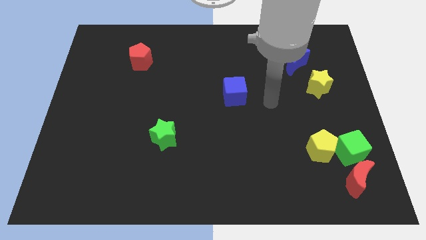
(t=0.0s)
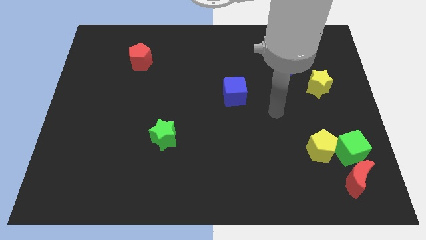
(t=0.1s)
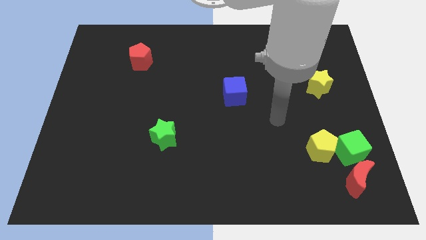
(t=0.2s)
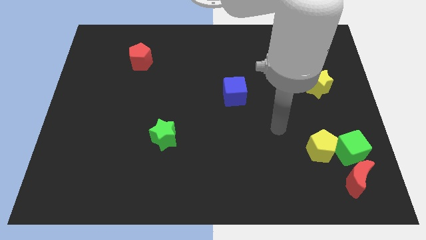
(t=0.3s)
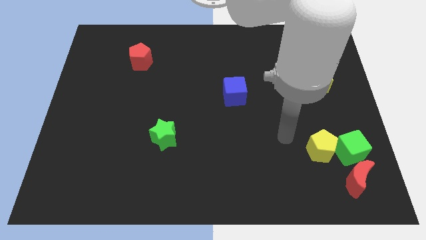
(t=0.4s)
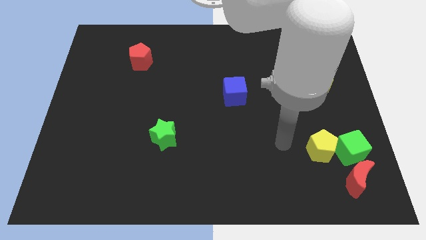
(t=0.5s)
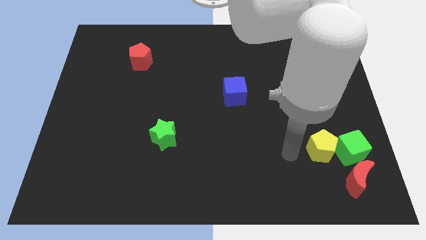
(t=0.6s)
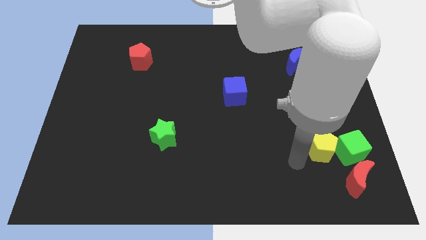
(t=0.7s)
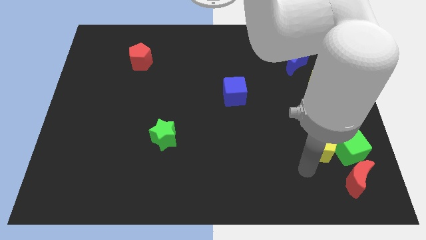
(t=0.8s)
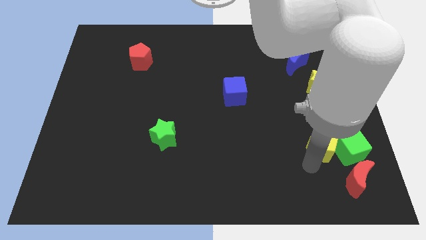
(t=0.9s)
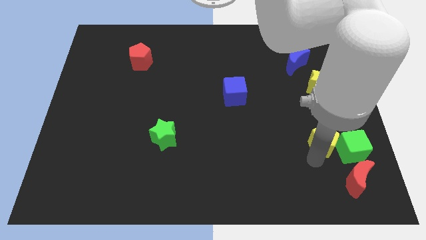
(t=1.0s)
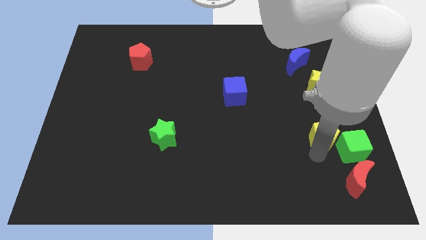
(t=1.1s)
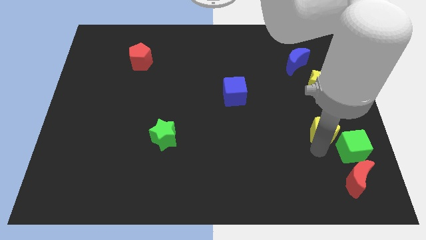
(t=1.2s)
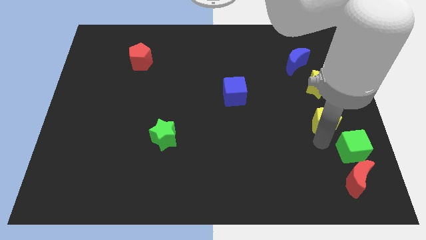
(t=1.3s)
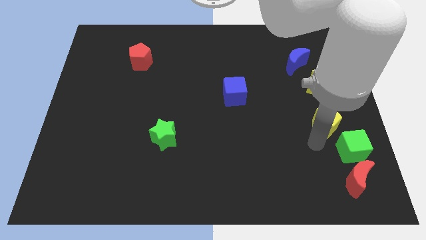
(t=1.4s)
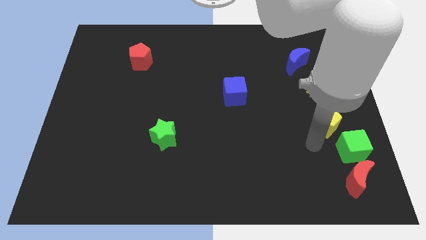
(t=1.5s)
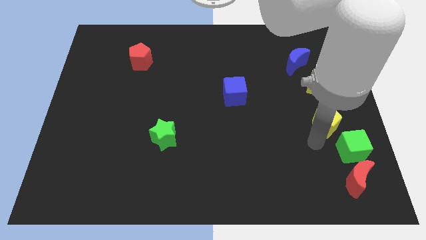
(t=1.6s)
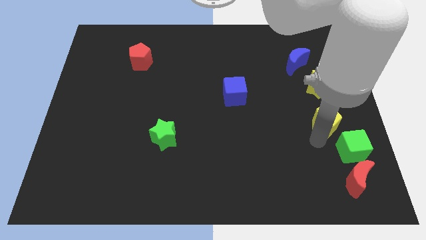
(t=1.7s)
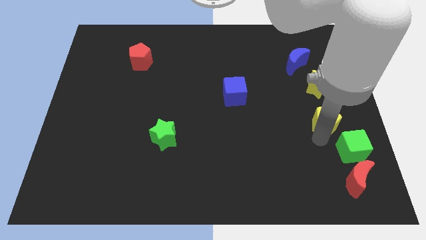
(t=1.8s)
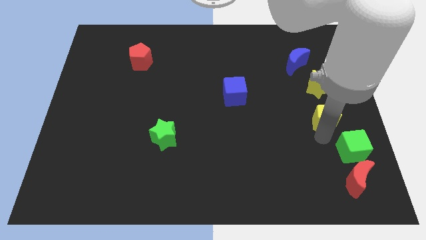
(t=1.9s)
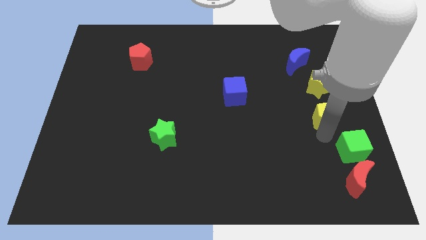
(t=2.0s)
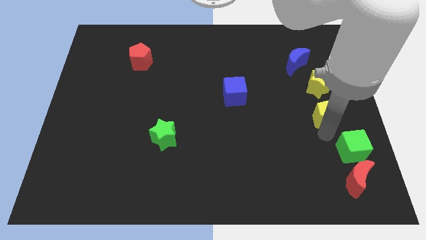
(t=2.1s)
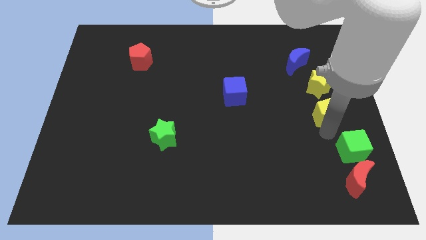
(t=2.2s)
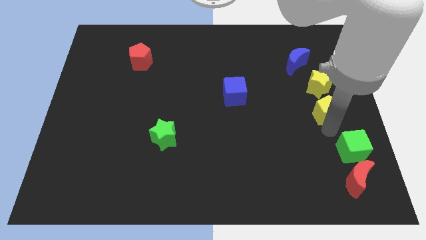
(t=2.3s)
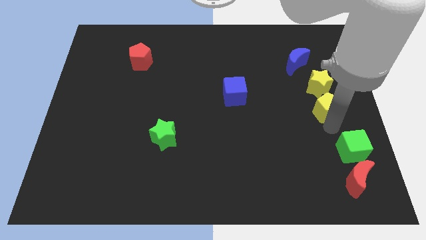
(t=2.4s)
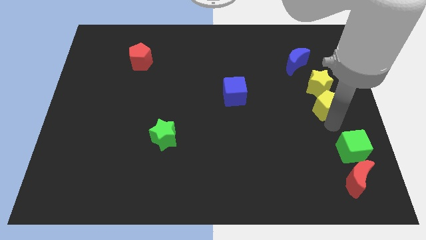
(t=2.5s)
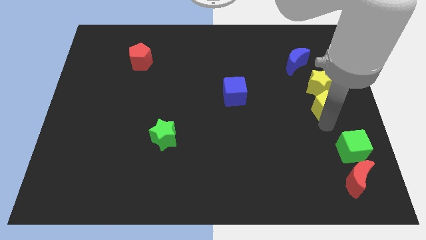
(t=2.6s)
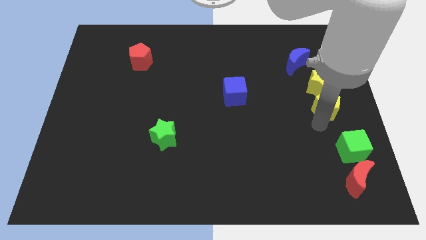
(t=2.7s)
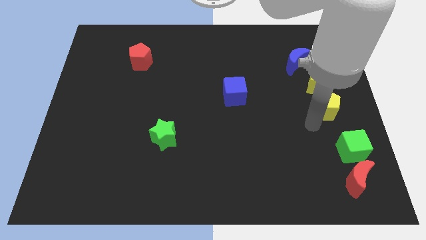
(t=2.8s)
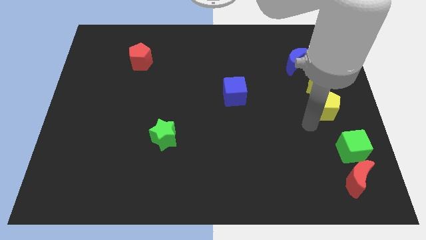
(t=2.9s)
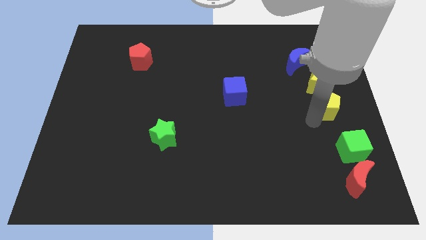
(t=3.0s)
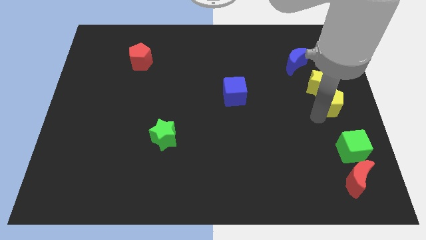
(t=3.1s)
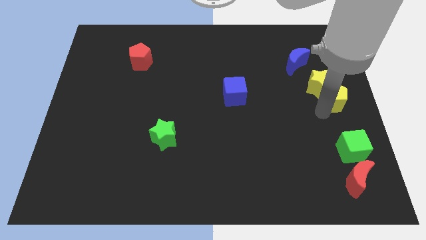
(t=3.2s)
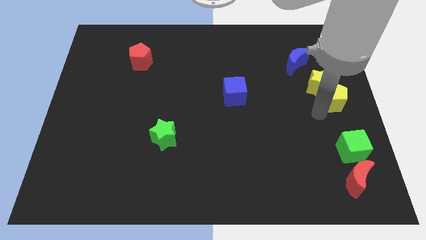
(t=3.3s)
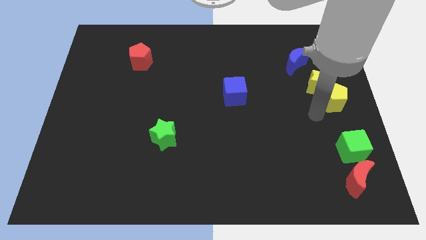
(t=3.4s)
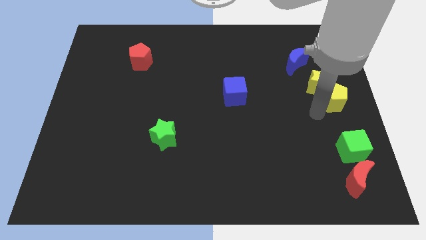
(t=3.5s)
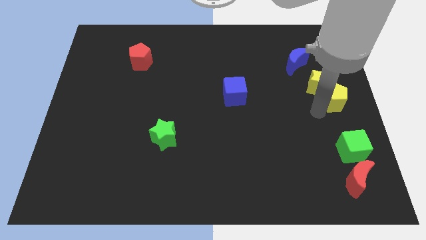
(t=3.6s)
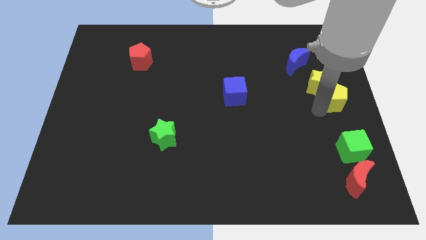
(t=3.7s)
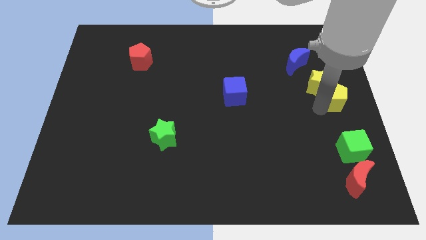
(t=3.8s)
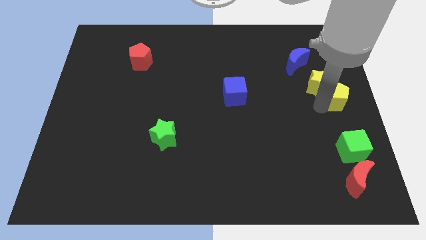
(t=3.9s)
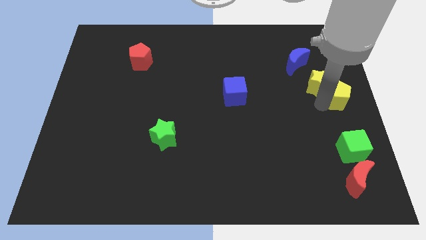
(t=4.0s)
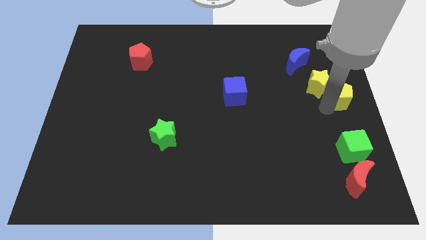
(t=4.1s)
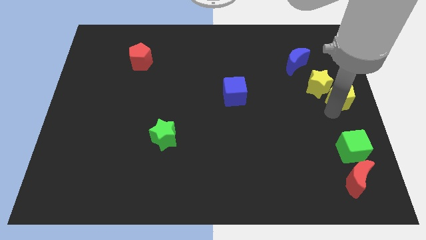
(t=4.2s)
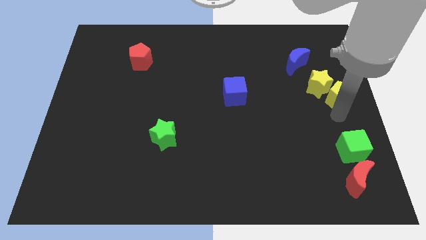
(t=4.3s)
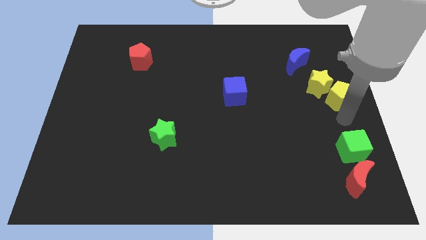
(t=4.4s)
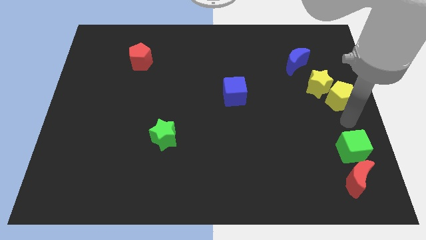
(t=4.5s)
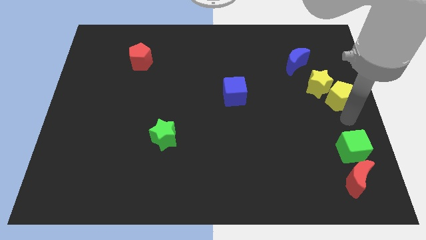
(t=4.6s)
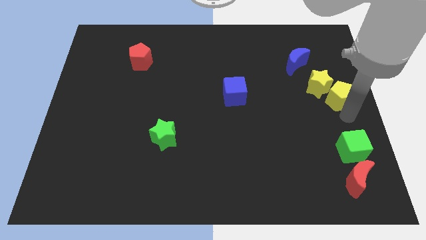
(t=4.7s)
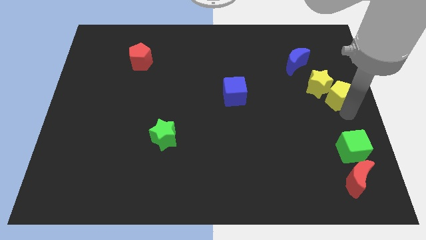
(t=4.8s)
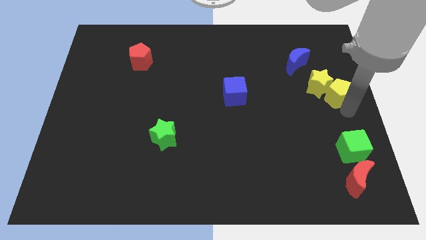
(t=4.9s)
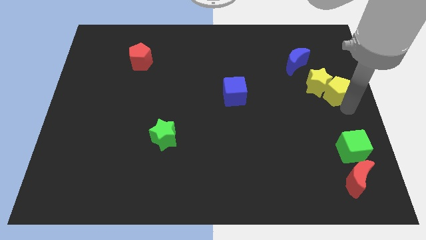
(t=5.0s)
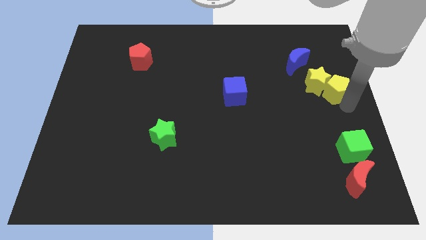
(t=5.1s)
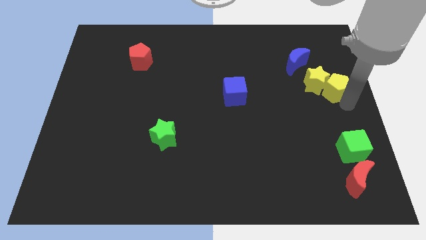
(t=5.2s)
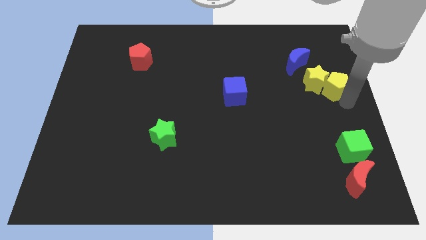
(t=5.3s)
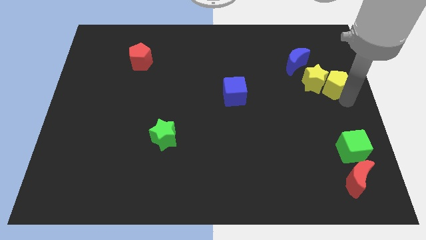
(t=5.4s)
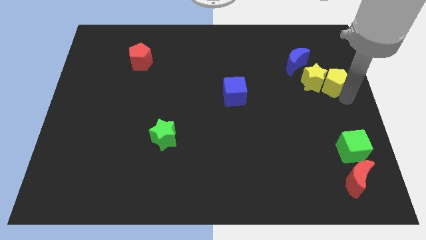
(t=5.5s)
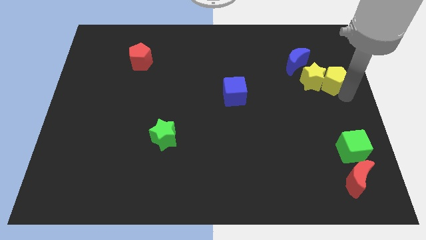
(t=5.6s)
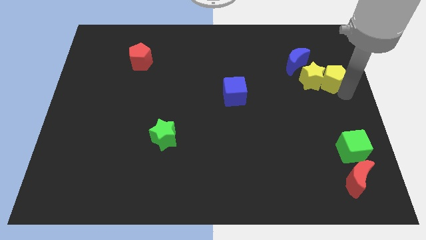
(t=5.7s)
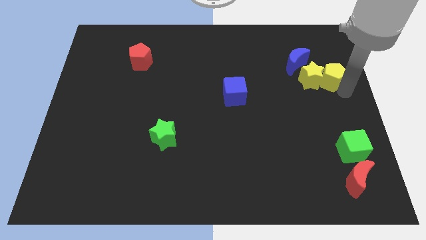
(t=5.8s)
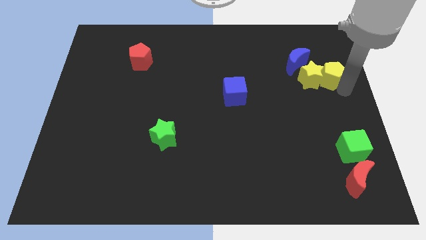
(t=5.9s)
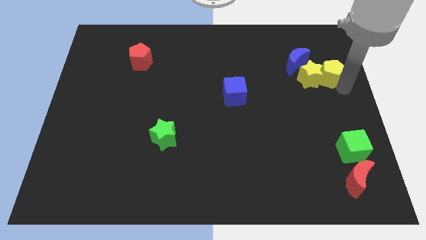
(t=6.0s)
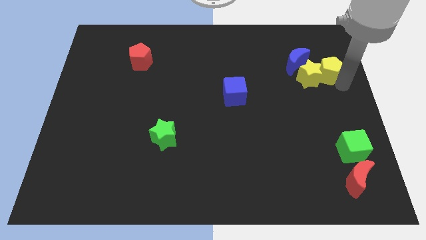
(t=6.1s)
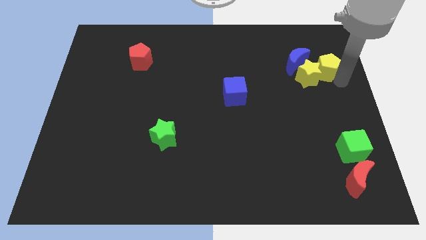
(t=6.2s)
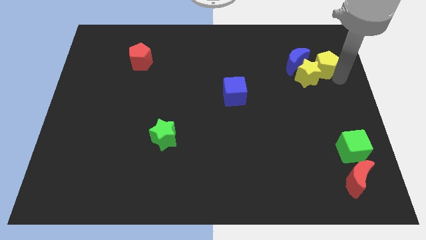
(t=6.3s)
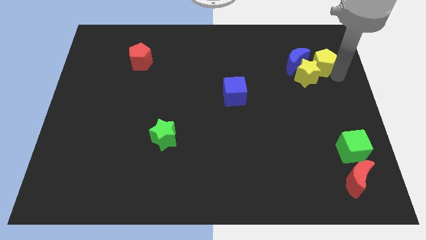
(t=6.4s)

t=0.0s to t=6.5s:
push the yellow pentagon to the top of the yellow star
